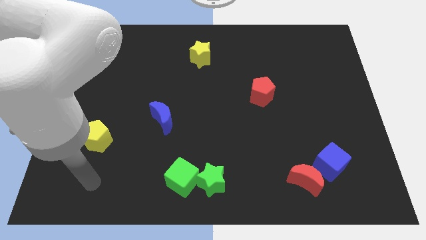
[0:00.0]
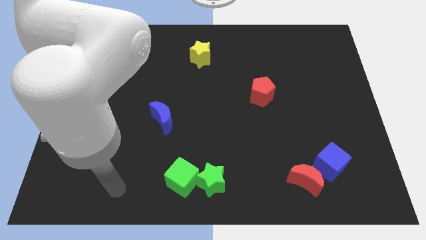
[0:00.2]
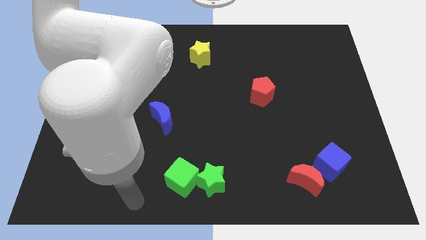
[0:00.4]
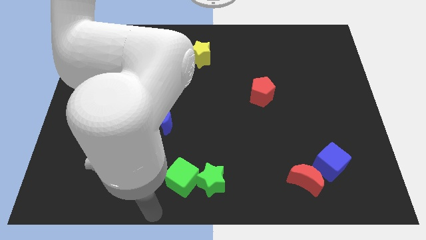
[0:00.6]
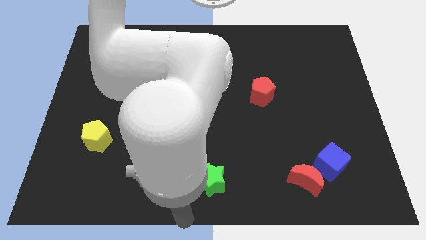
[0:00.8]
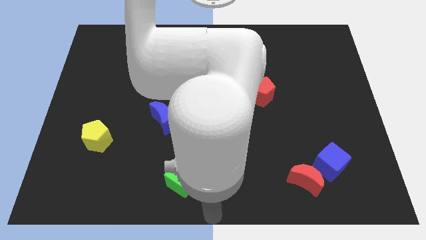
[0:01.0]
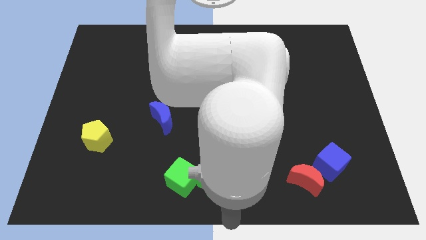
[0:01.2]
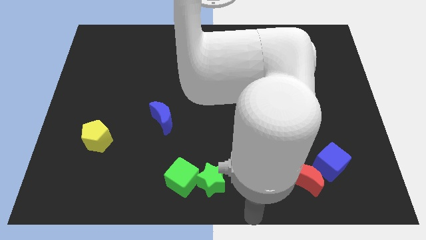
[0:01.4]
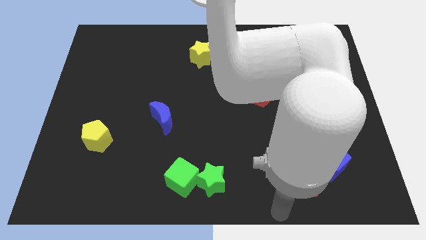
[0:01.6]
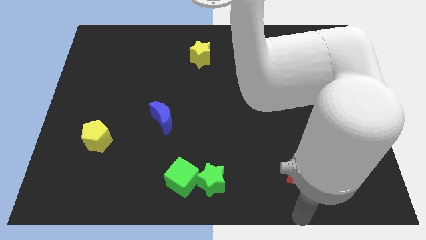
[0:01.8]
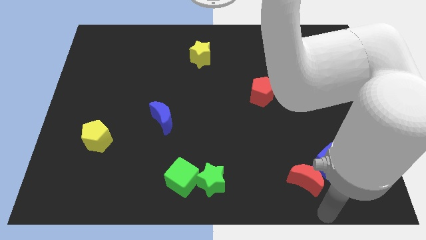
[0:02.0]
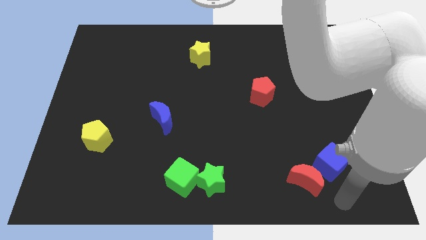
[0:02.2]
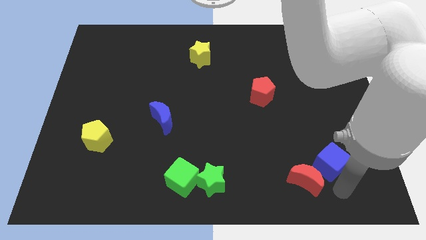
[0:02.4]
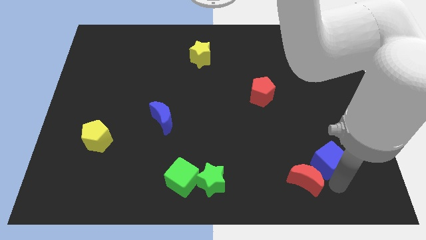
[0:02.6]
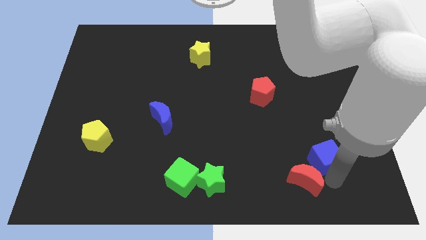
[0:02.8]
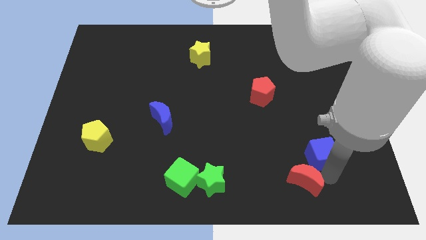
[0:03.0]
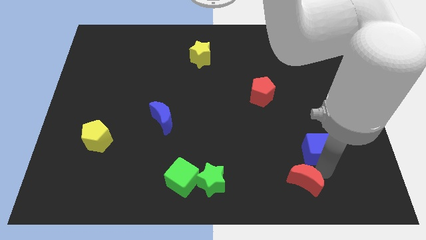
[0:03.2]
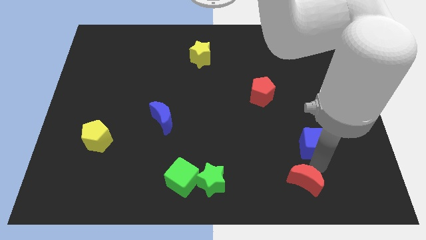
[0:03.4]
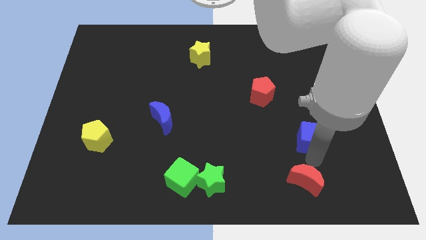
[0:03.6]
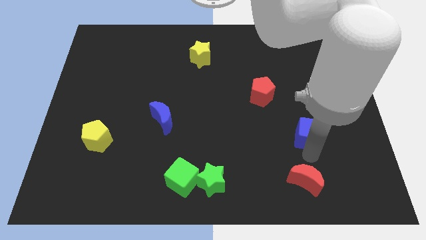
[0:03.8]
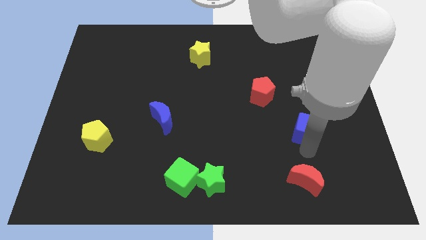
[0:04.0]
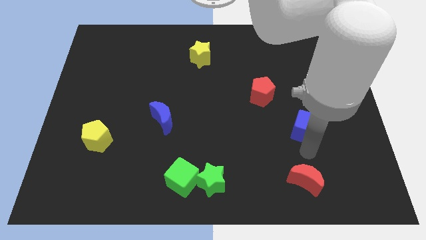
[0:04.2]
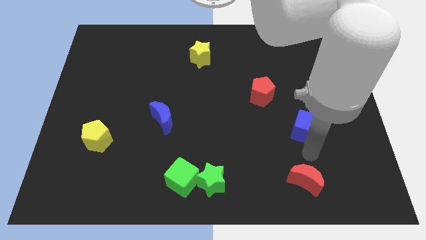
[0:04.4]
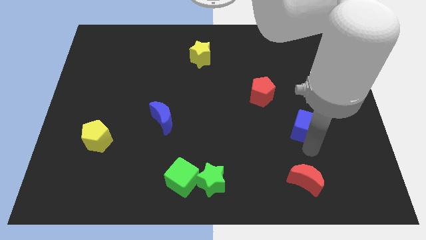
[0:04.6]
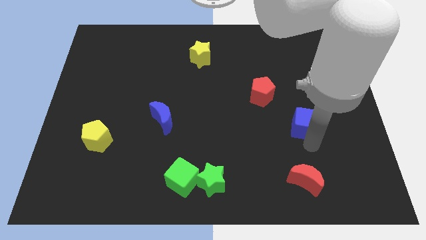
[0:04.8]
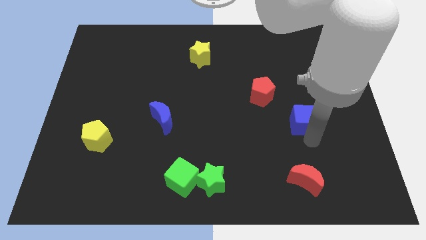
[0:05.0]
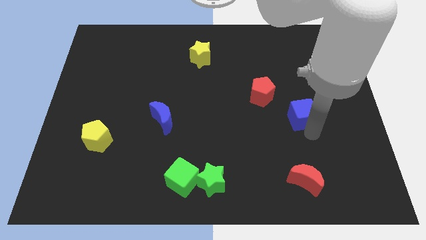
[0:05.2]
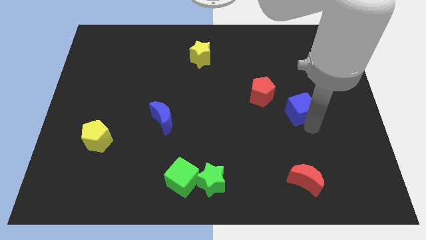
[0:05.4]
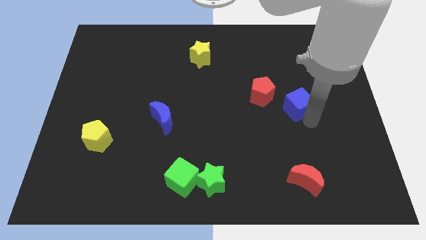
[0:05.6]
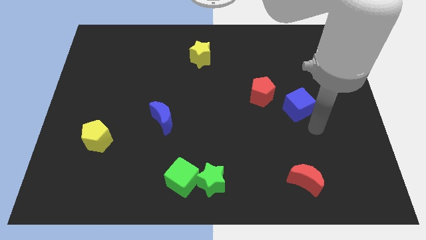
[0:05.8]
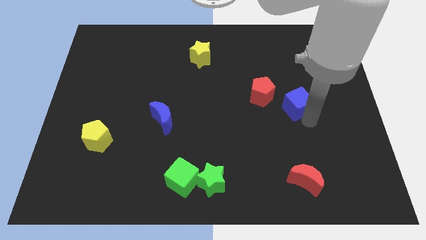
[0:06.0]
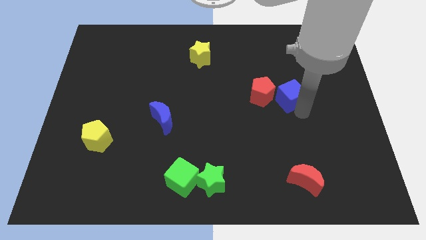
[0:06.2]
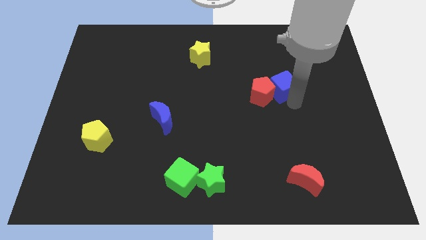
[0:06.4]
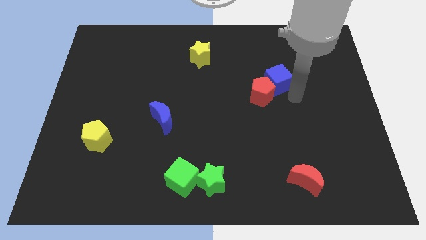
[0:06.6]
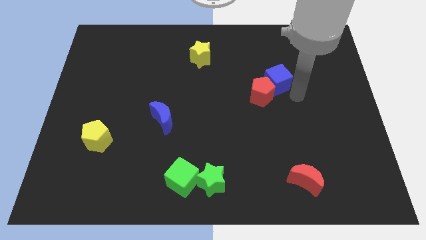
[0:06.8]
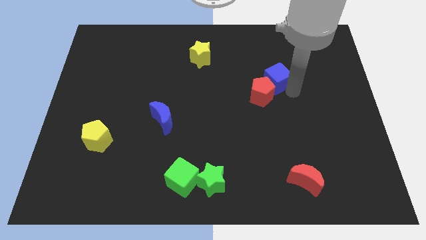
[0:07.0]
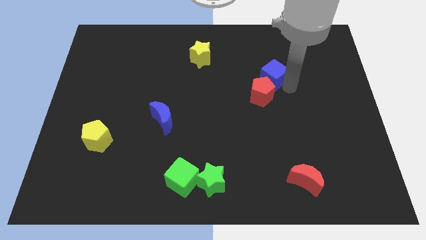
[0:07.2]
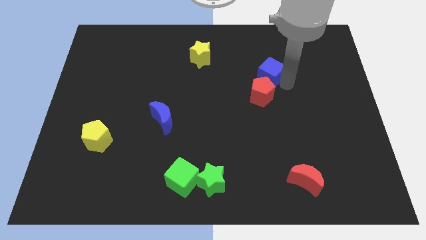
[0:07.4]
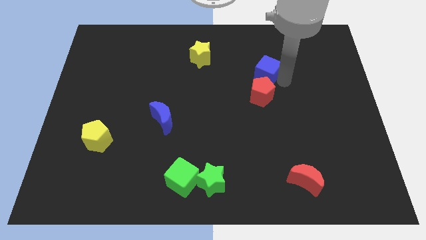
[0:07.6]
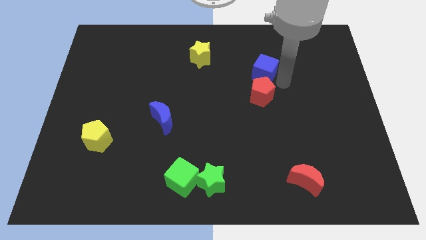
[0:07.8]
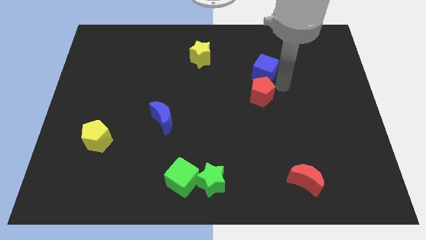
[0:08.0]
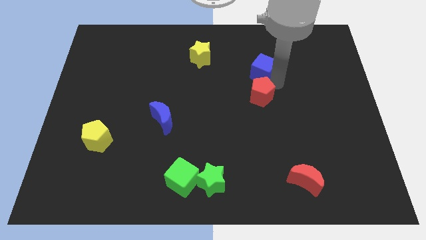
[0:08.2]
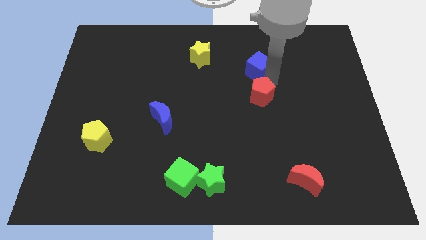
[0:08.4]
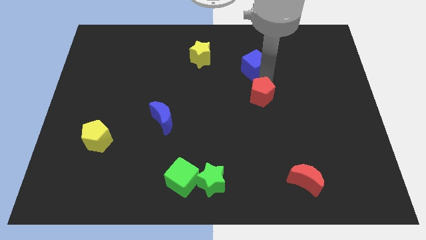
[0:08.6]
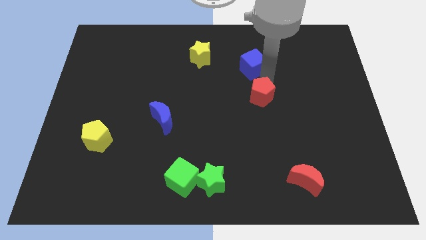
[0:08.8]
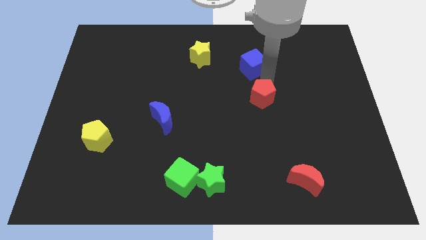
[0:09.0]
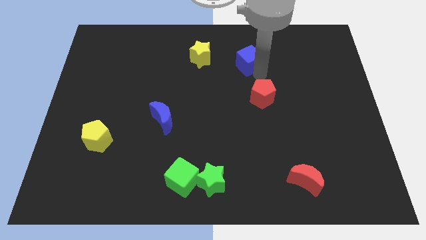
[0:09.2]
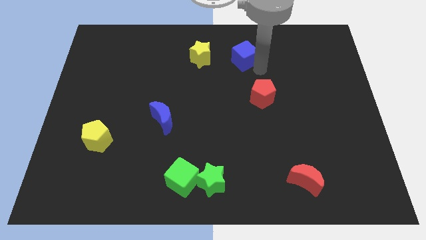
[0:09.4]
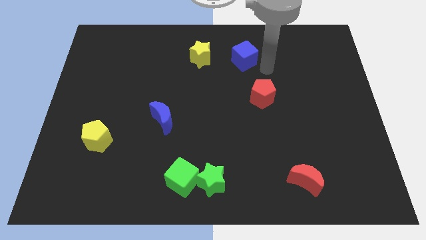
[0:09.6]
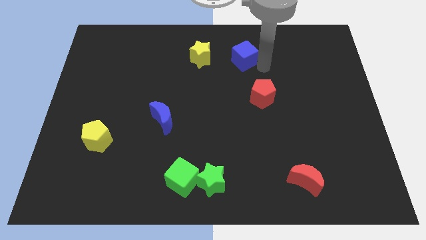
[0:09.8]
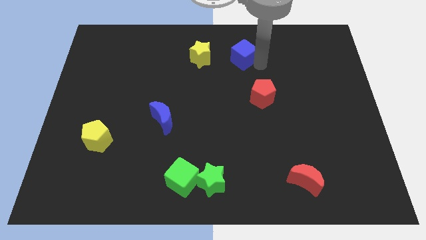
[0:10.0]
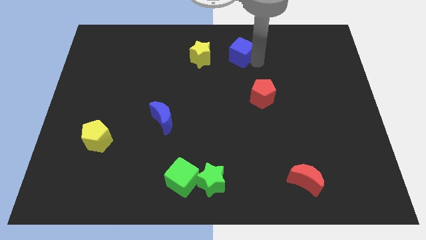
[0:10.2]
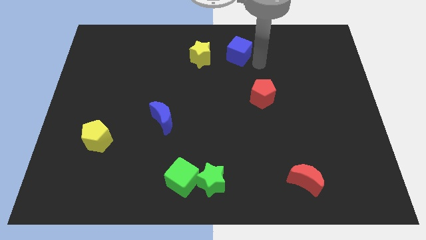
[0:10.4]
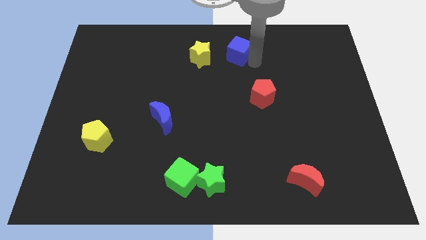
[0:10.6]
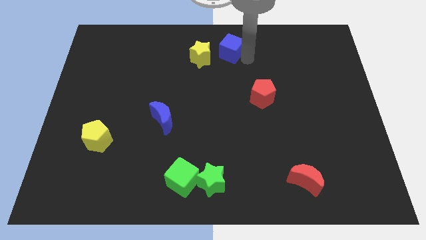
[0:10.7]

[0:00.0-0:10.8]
push the blue cube to the top side
